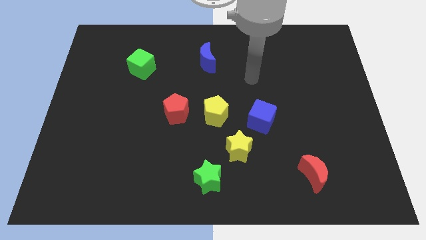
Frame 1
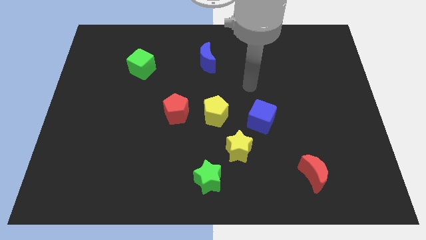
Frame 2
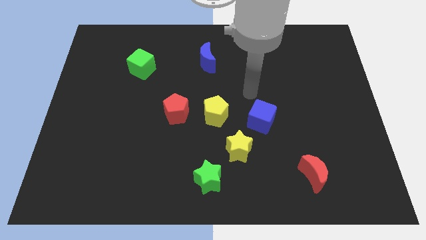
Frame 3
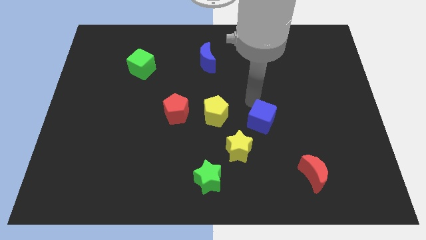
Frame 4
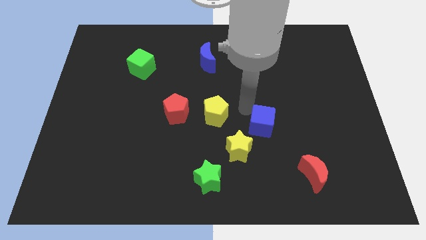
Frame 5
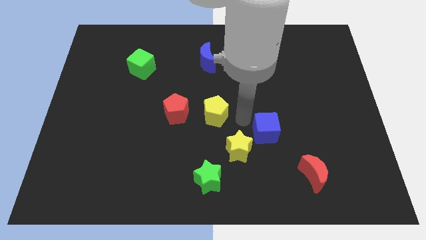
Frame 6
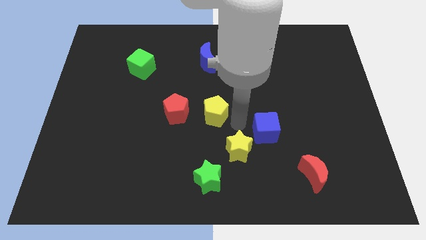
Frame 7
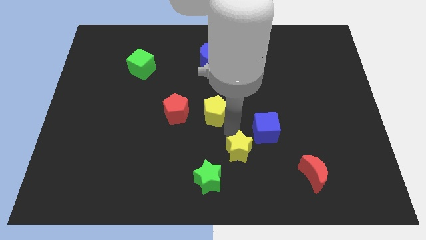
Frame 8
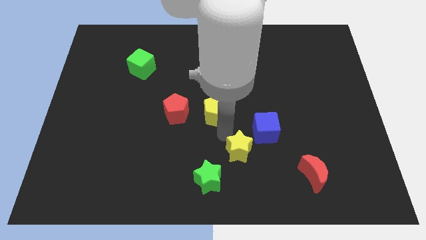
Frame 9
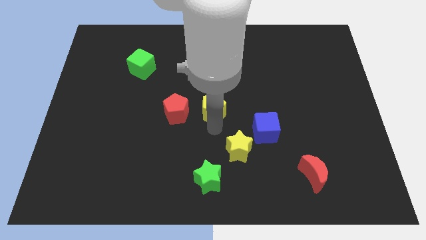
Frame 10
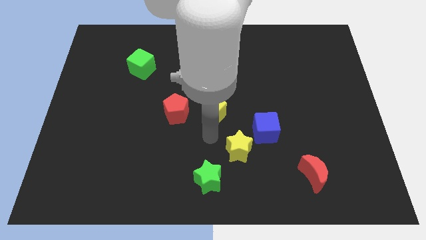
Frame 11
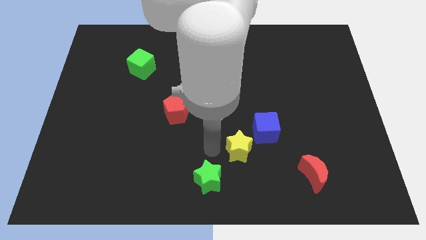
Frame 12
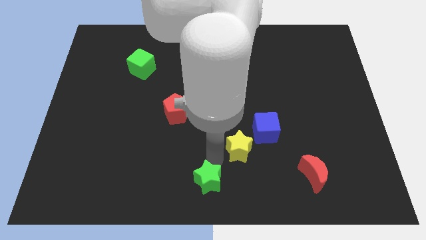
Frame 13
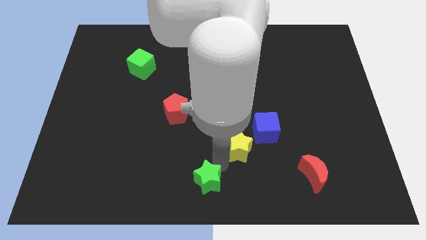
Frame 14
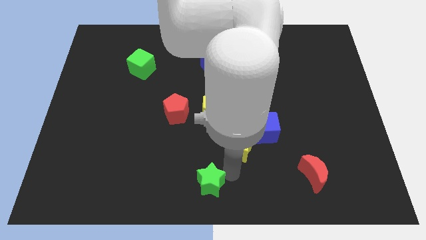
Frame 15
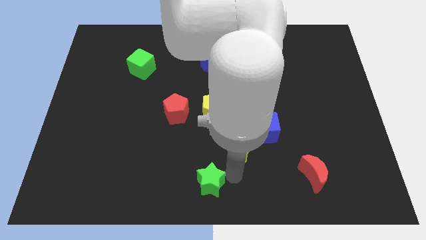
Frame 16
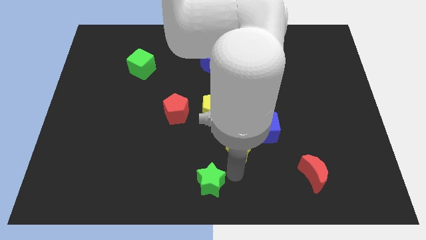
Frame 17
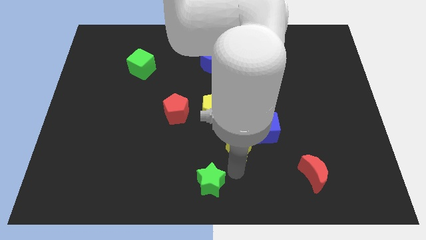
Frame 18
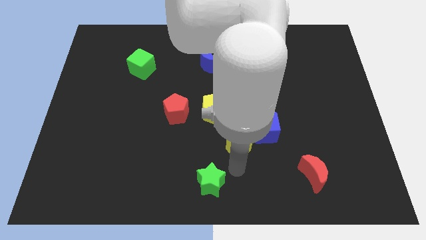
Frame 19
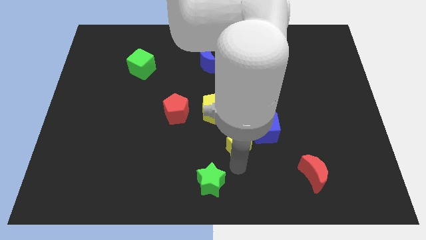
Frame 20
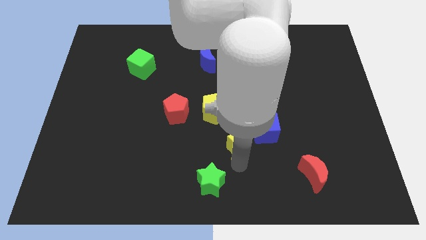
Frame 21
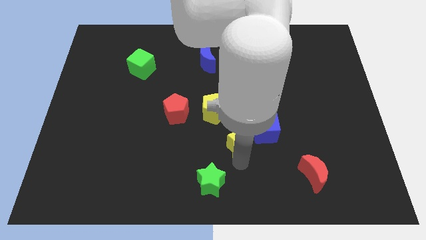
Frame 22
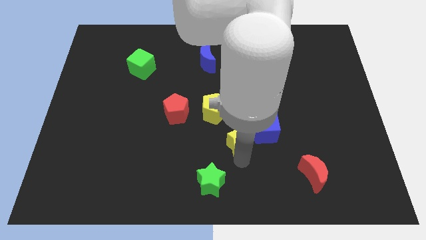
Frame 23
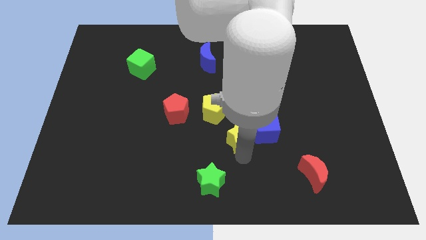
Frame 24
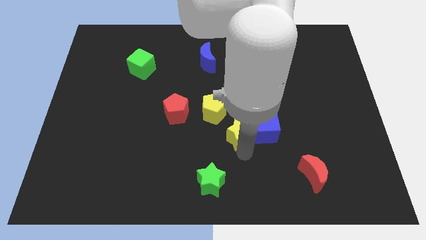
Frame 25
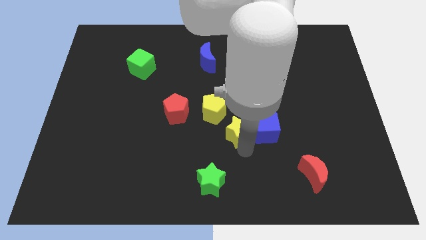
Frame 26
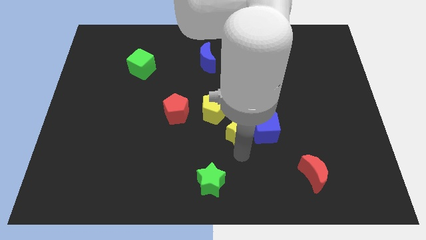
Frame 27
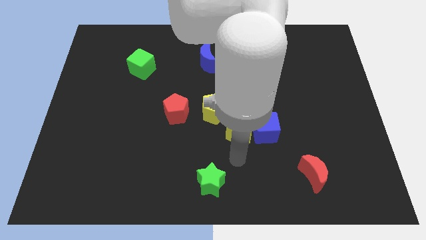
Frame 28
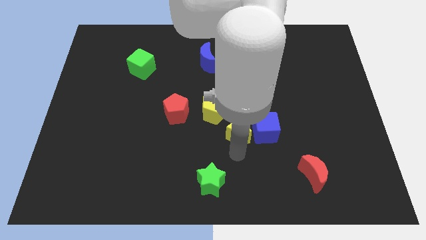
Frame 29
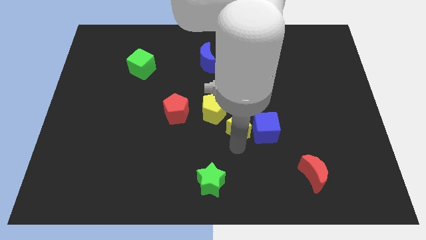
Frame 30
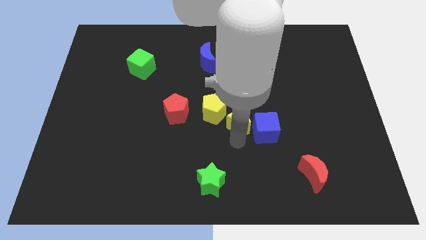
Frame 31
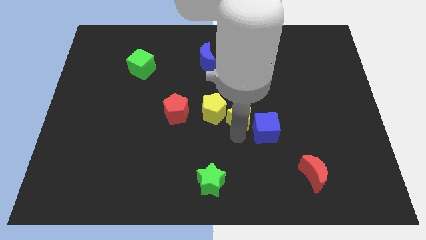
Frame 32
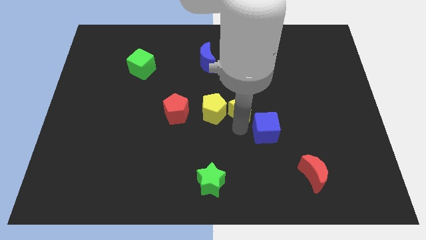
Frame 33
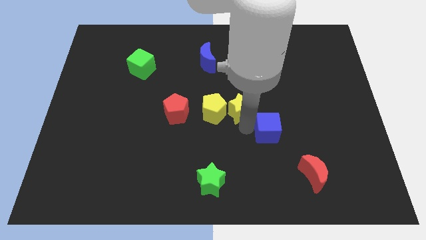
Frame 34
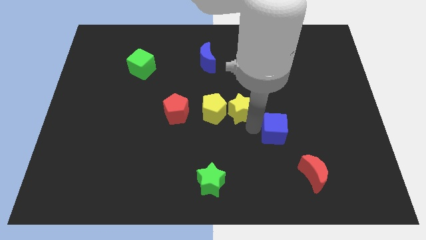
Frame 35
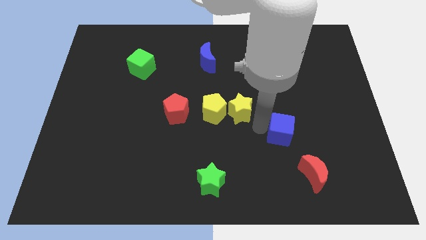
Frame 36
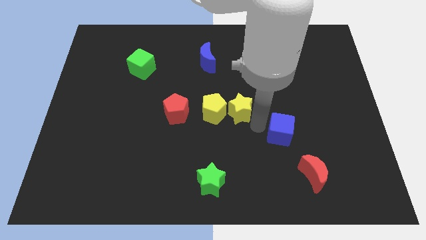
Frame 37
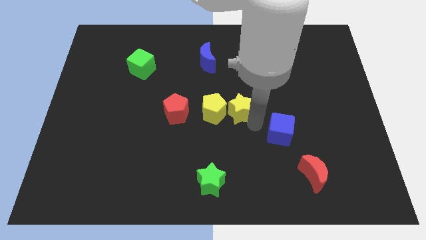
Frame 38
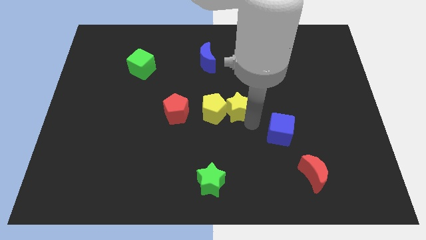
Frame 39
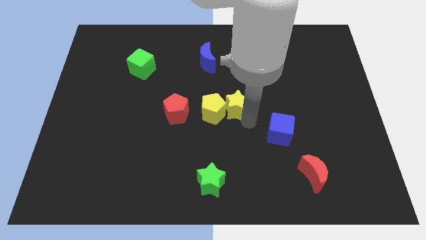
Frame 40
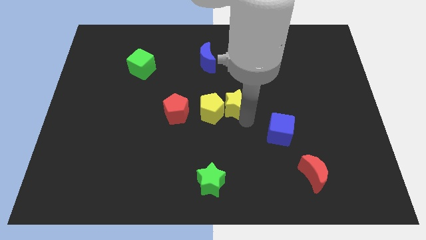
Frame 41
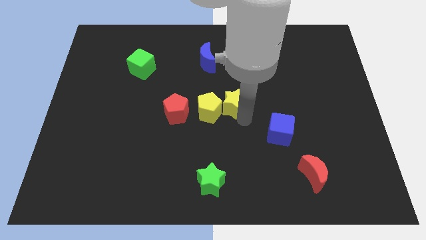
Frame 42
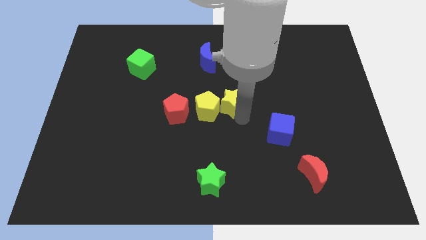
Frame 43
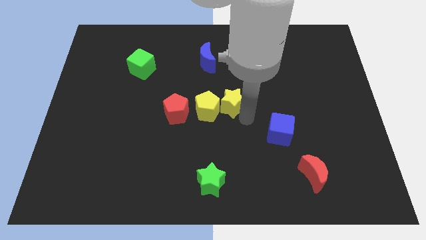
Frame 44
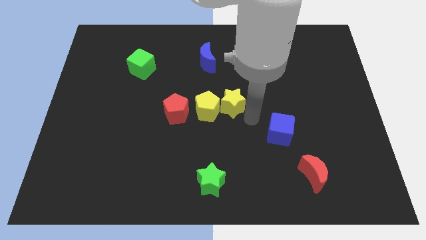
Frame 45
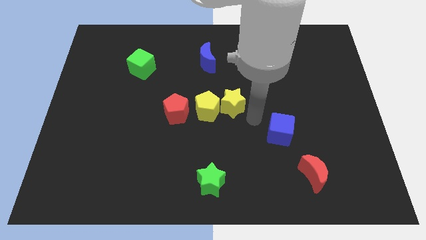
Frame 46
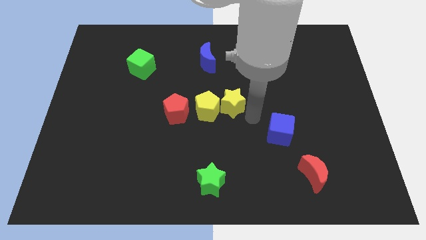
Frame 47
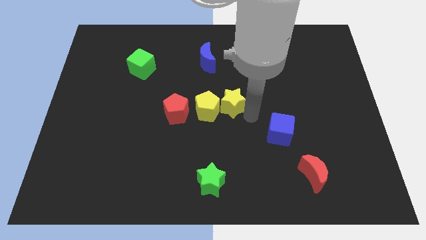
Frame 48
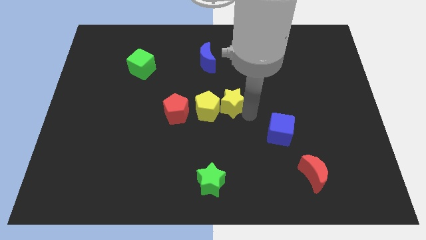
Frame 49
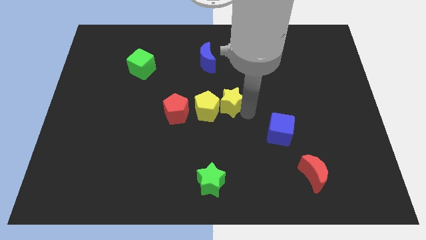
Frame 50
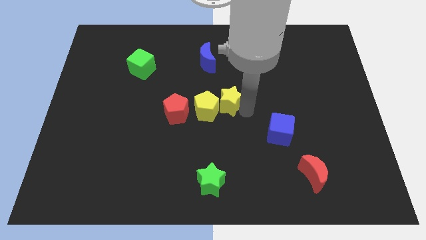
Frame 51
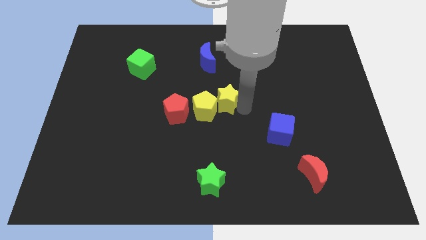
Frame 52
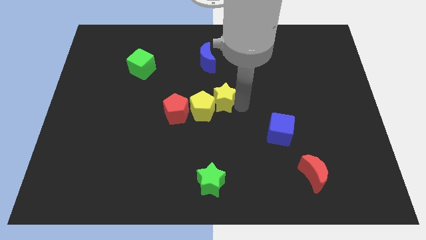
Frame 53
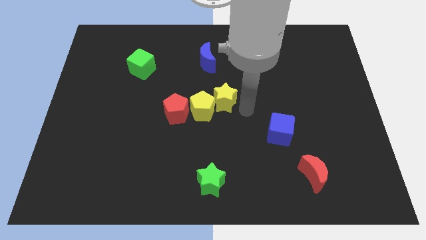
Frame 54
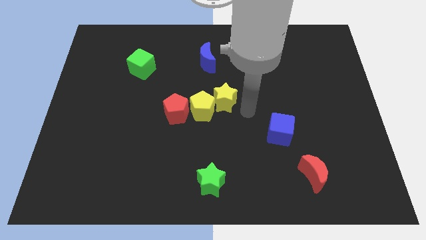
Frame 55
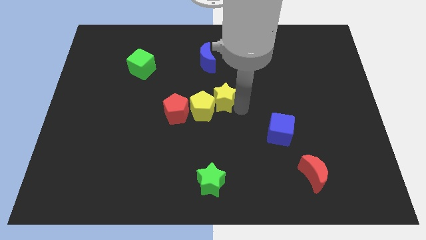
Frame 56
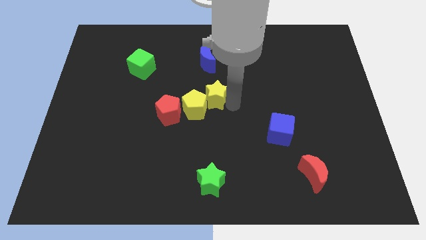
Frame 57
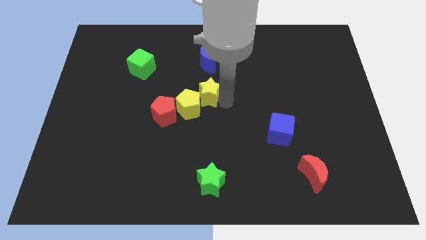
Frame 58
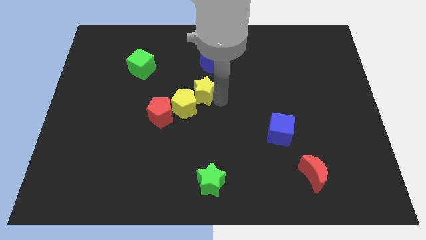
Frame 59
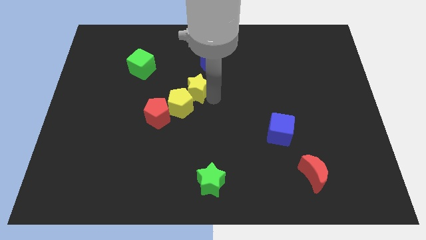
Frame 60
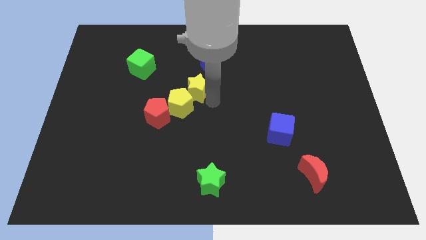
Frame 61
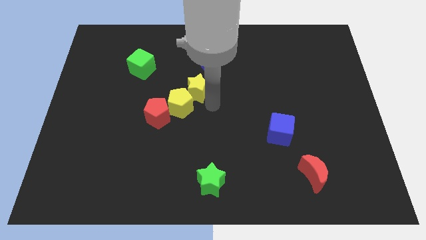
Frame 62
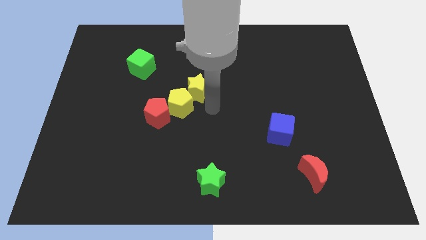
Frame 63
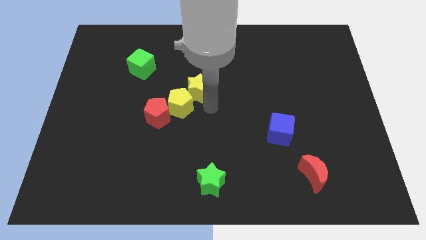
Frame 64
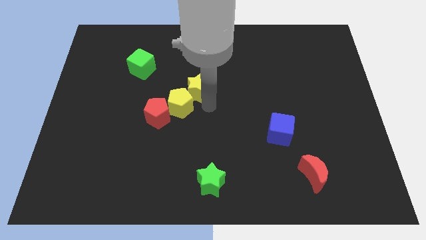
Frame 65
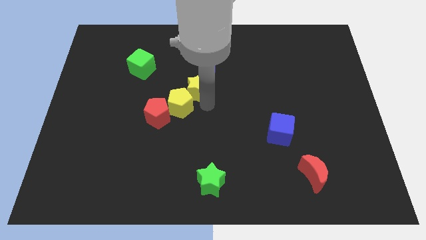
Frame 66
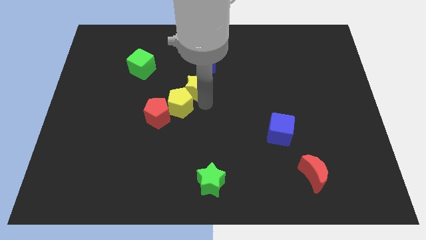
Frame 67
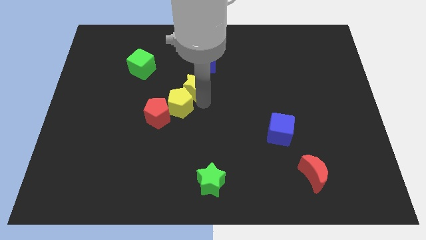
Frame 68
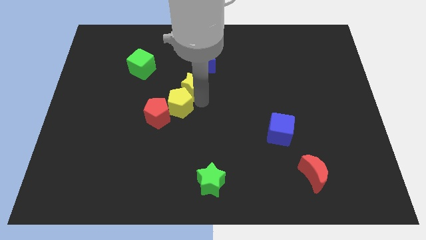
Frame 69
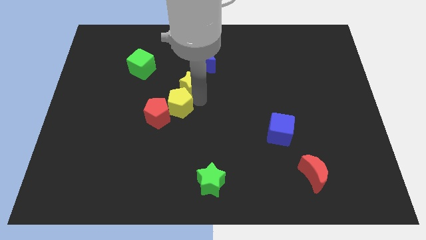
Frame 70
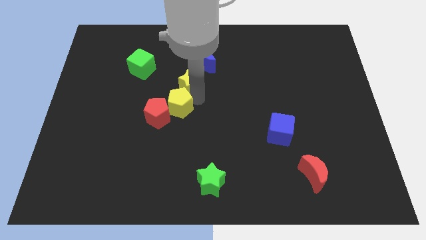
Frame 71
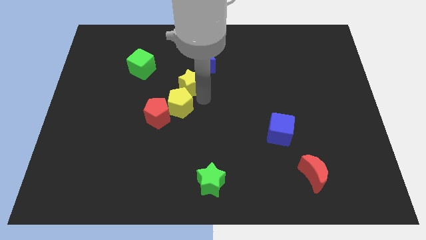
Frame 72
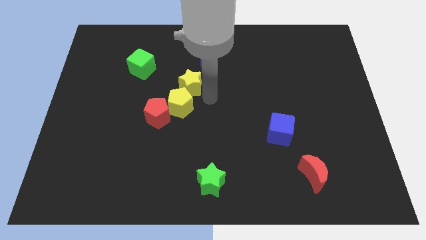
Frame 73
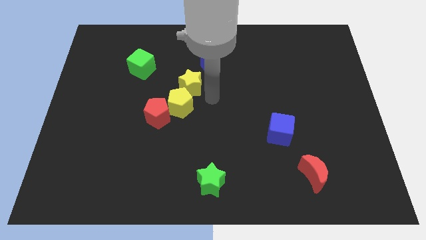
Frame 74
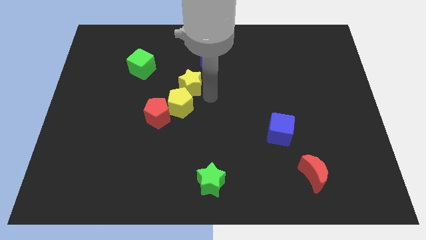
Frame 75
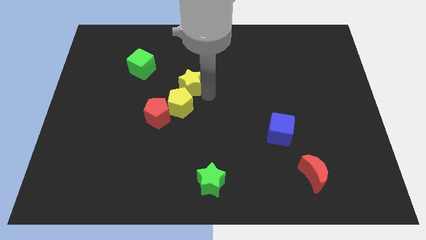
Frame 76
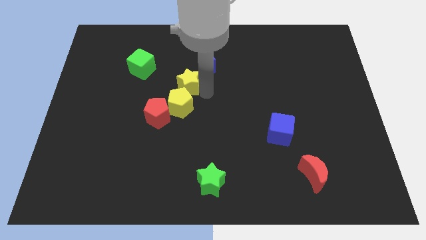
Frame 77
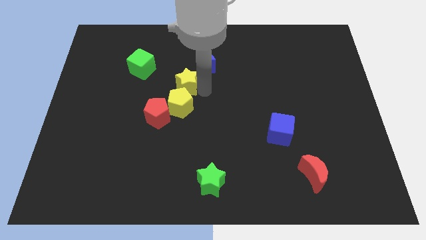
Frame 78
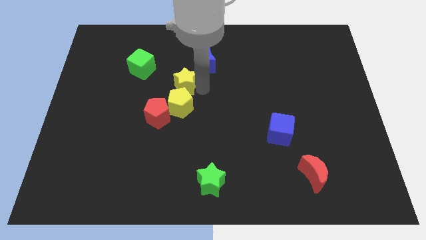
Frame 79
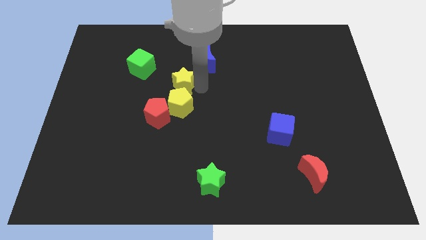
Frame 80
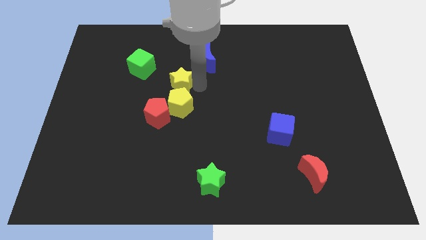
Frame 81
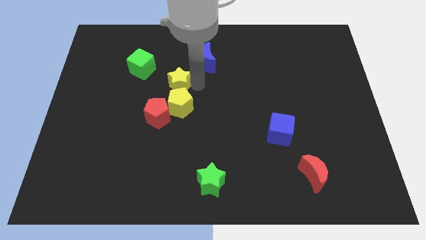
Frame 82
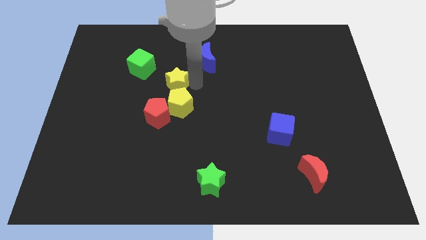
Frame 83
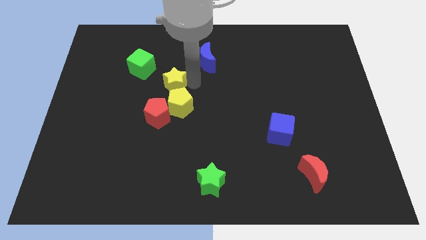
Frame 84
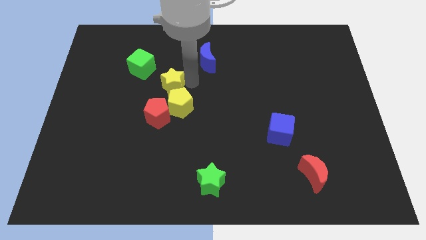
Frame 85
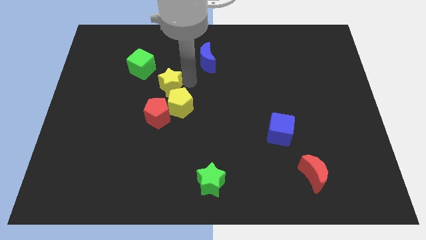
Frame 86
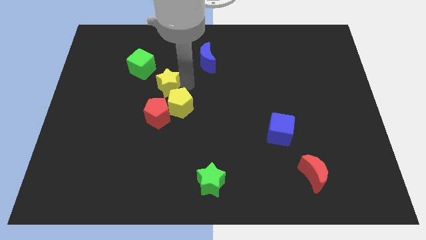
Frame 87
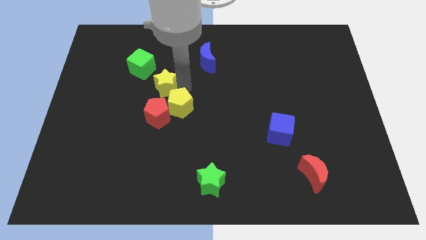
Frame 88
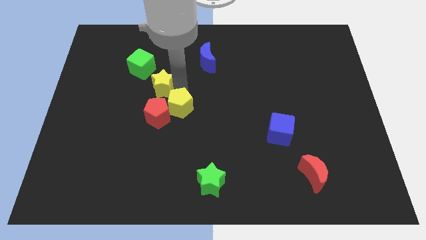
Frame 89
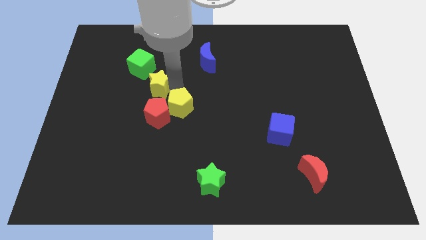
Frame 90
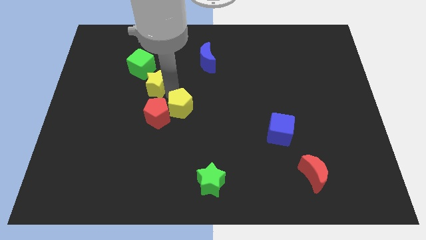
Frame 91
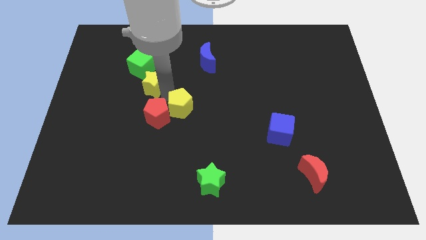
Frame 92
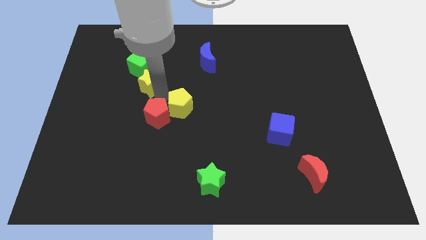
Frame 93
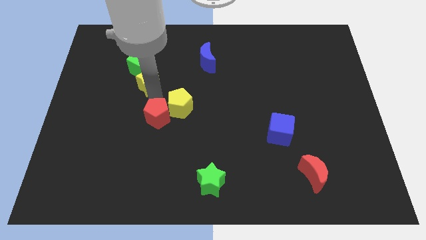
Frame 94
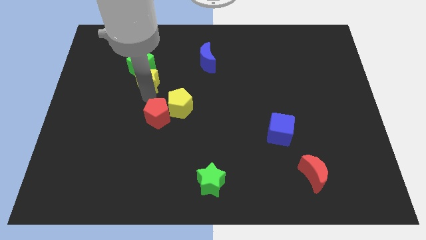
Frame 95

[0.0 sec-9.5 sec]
put the yellow star next to the green cube
